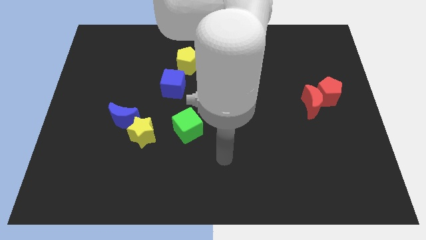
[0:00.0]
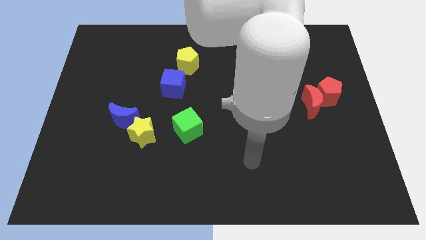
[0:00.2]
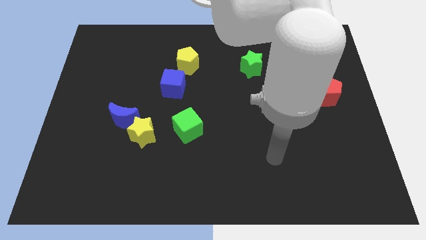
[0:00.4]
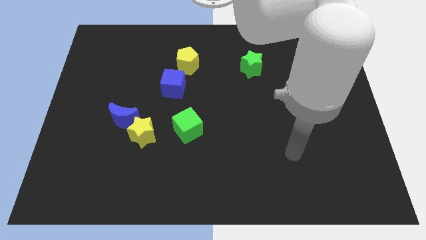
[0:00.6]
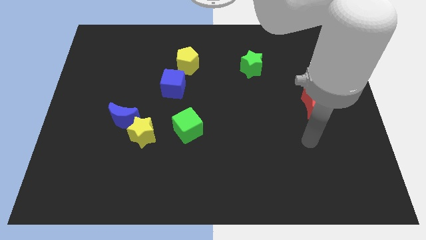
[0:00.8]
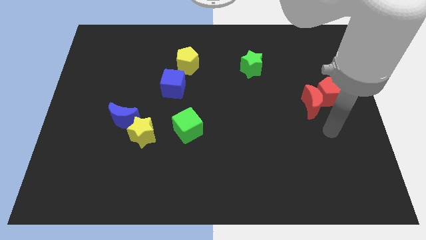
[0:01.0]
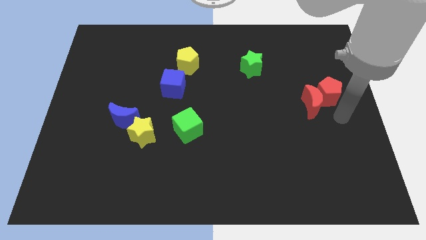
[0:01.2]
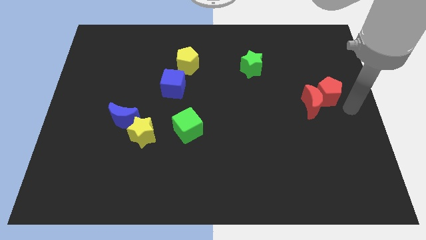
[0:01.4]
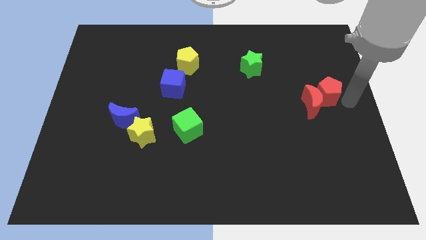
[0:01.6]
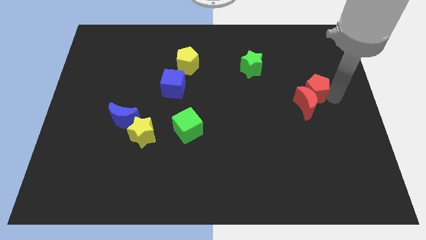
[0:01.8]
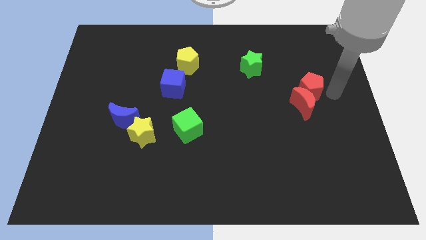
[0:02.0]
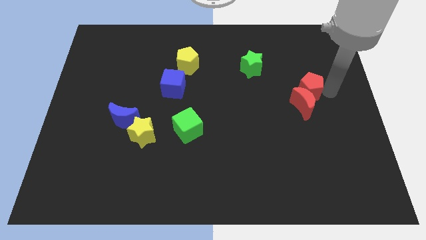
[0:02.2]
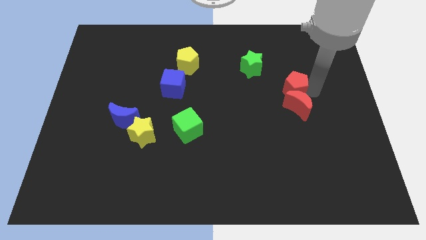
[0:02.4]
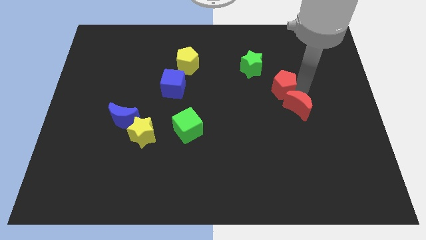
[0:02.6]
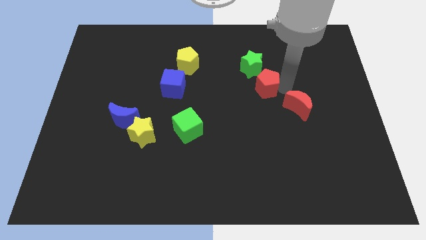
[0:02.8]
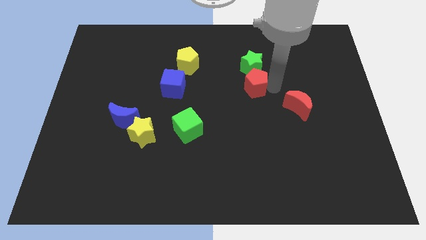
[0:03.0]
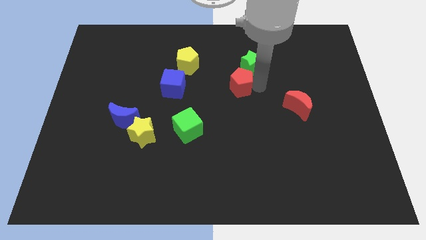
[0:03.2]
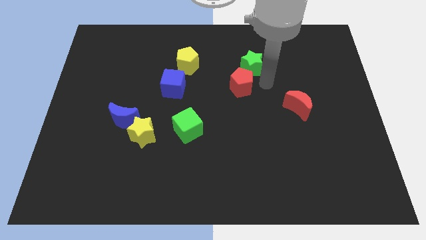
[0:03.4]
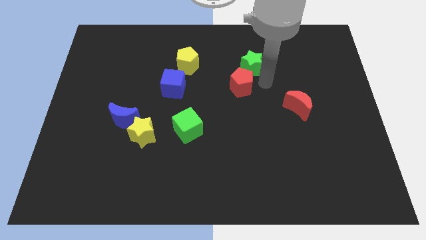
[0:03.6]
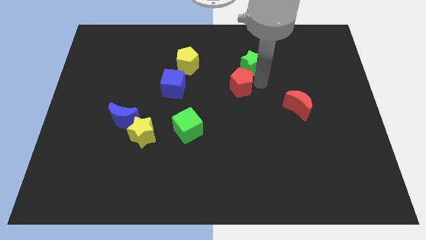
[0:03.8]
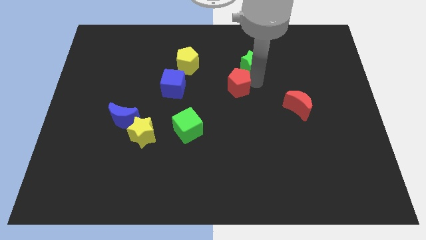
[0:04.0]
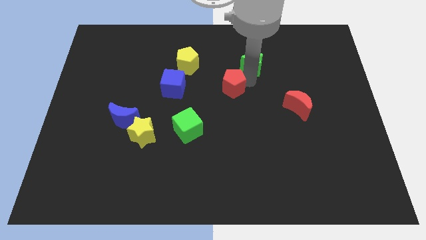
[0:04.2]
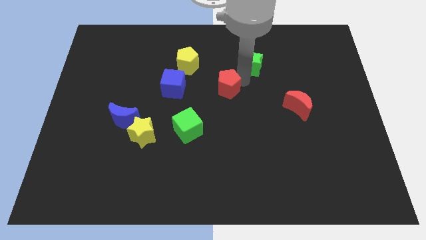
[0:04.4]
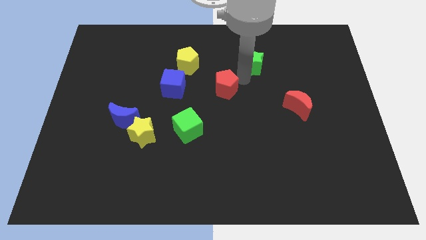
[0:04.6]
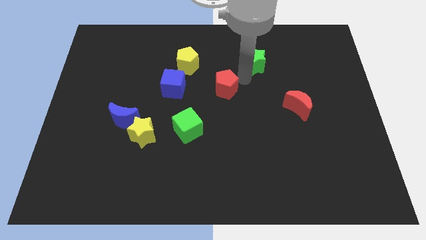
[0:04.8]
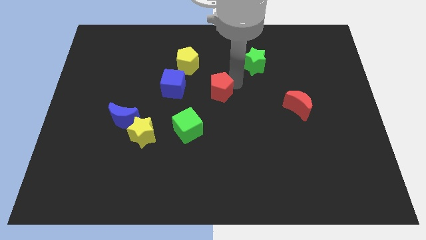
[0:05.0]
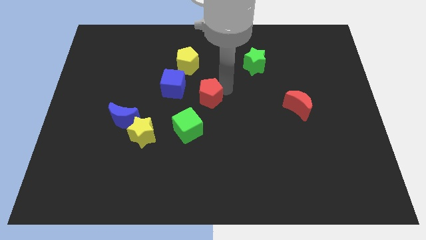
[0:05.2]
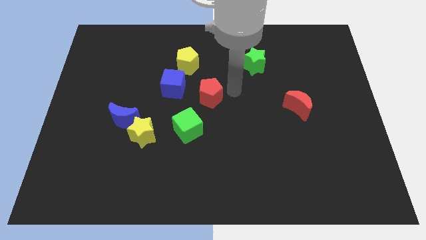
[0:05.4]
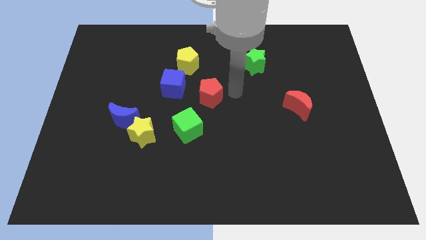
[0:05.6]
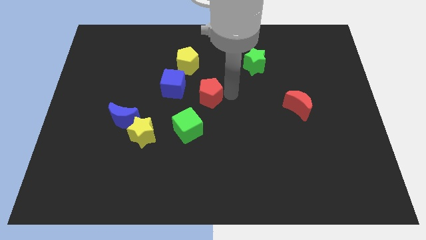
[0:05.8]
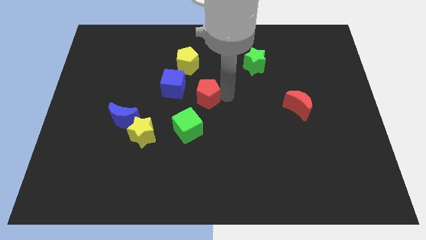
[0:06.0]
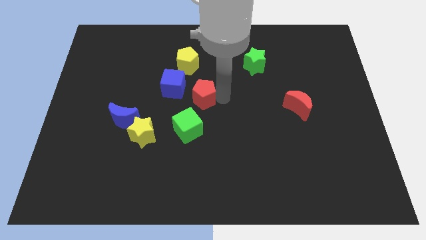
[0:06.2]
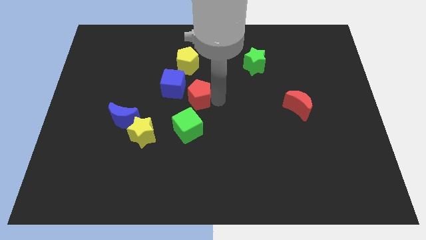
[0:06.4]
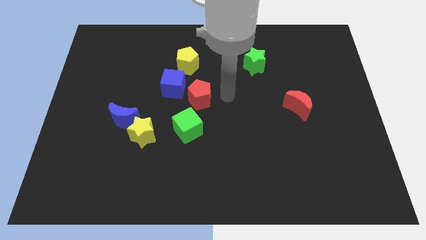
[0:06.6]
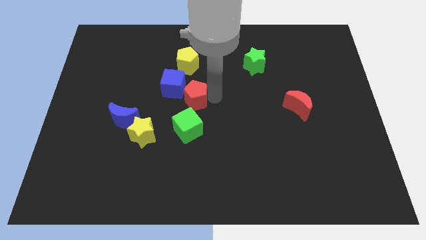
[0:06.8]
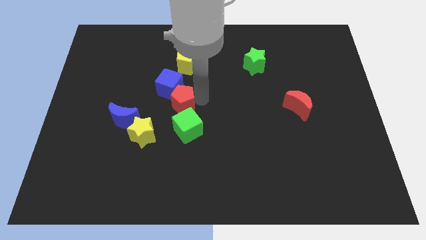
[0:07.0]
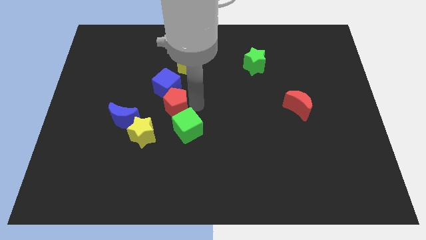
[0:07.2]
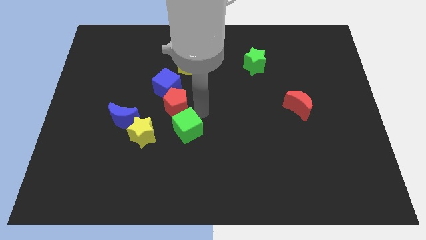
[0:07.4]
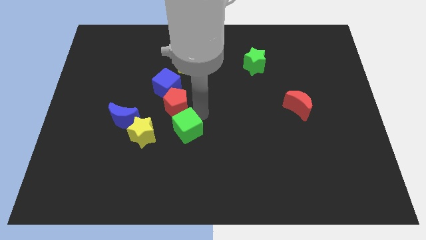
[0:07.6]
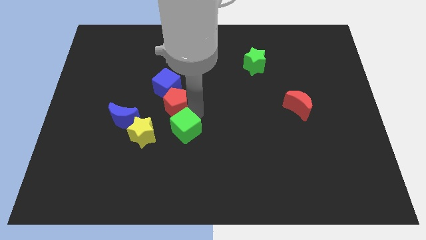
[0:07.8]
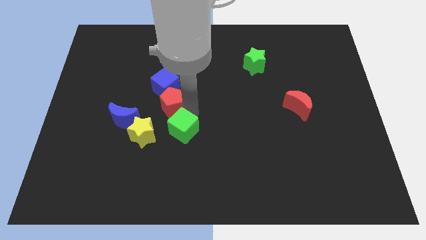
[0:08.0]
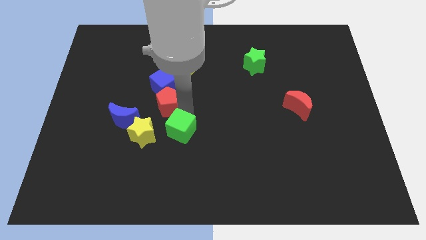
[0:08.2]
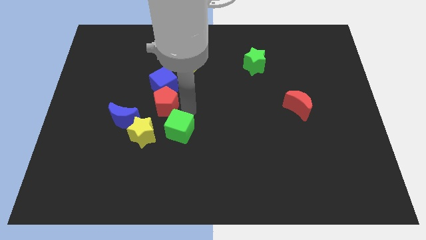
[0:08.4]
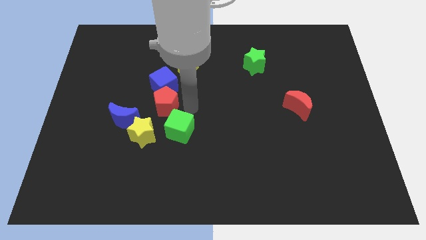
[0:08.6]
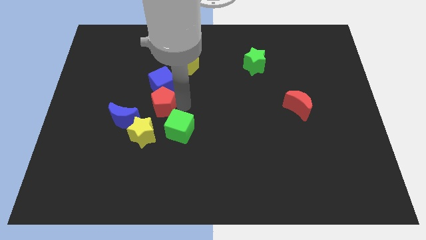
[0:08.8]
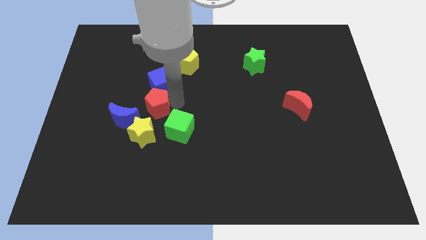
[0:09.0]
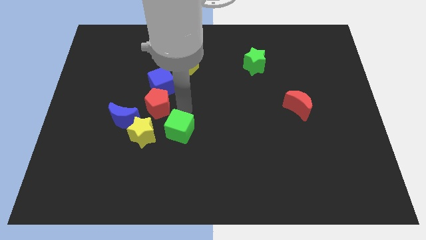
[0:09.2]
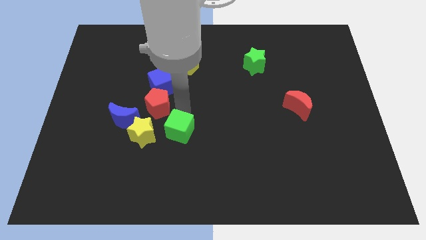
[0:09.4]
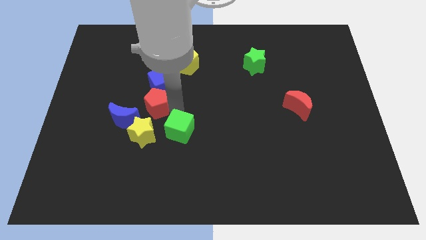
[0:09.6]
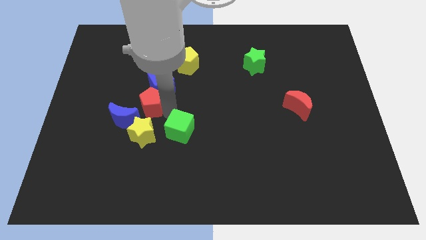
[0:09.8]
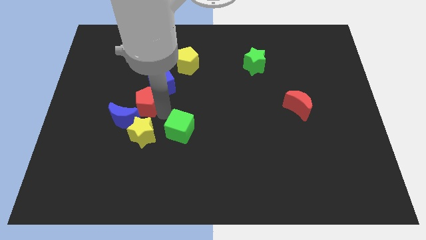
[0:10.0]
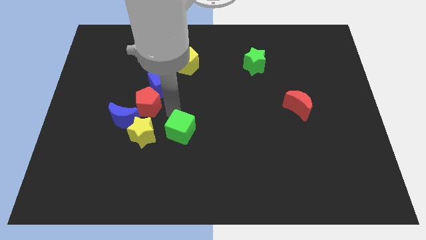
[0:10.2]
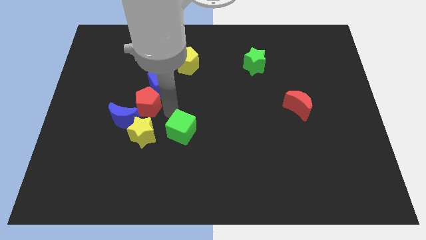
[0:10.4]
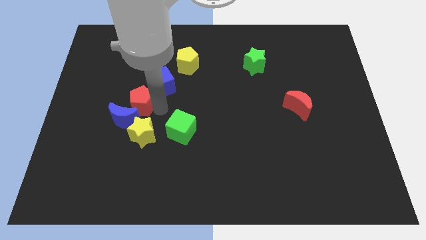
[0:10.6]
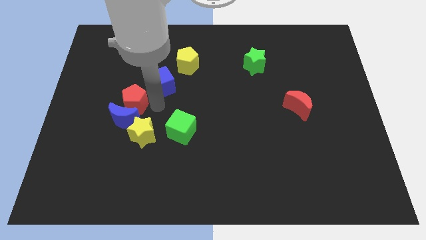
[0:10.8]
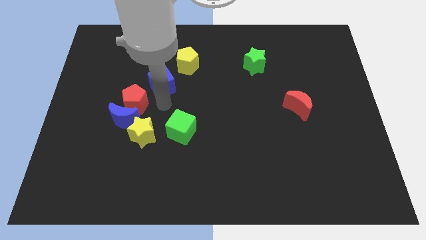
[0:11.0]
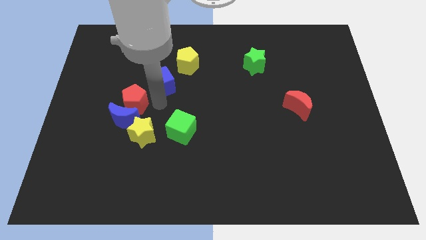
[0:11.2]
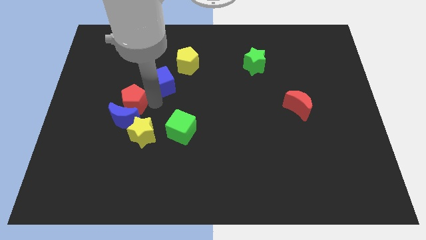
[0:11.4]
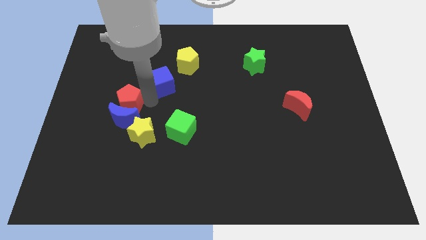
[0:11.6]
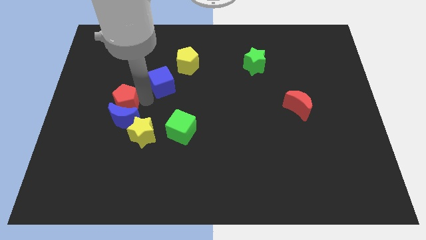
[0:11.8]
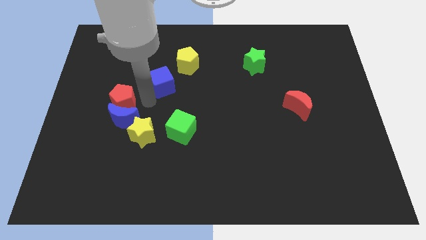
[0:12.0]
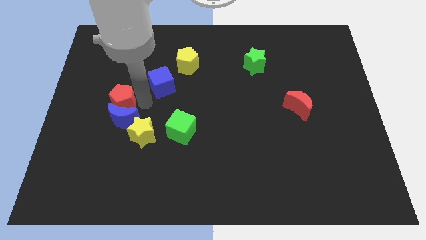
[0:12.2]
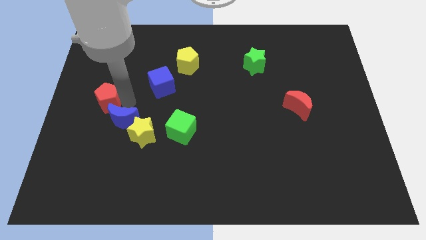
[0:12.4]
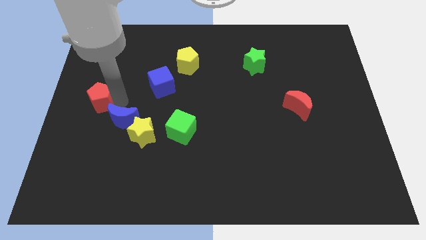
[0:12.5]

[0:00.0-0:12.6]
move the red pentagon to the center left

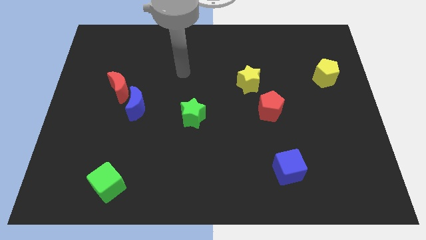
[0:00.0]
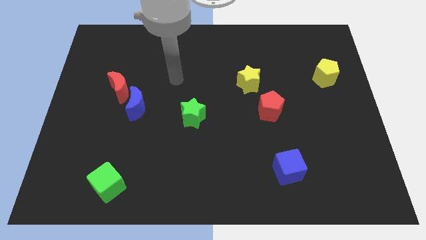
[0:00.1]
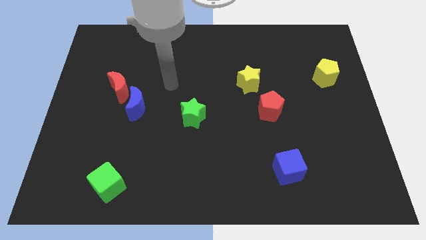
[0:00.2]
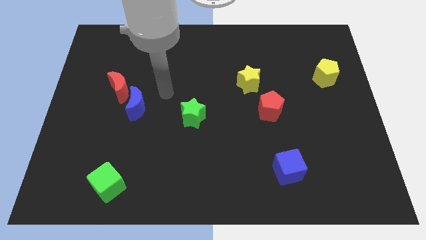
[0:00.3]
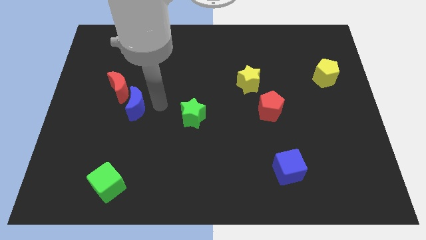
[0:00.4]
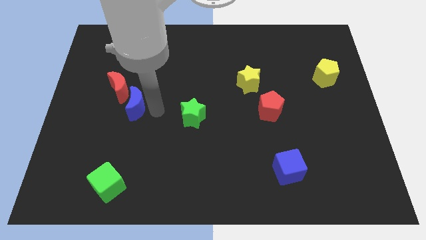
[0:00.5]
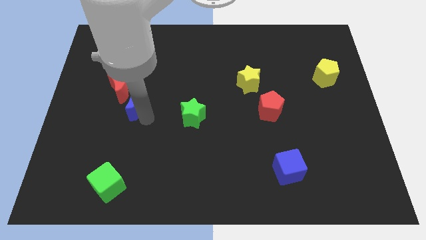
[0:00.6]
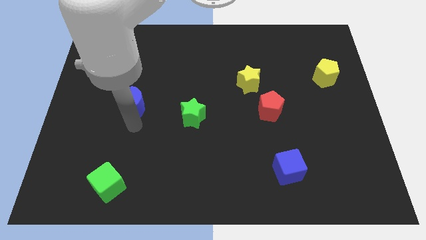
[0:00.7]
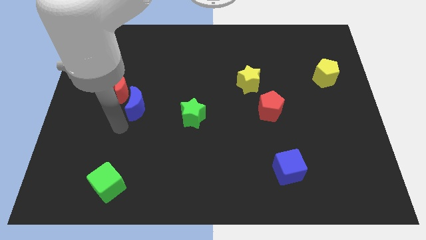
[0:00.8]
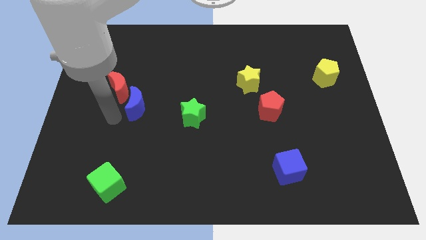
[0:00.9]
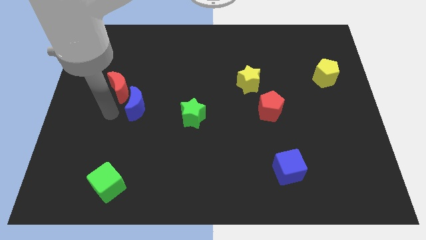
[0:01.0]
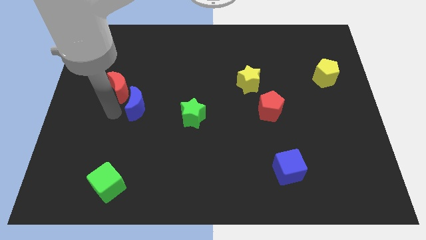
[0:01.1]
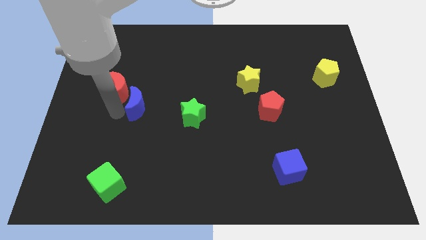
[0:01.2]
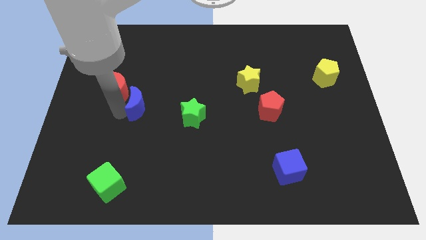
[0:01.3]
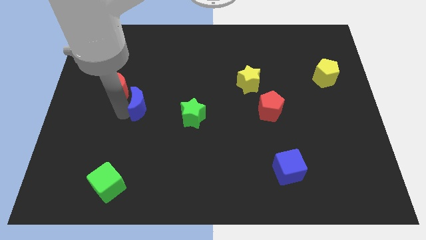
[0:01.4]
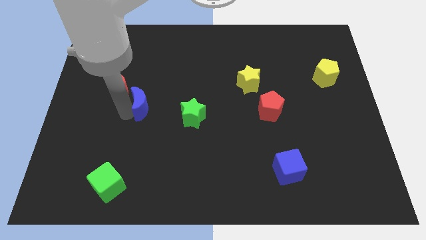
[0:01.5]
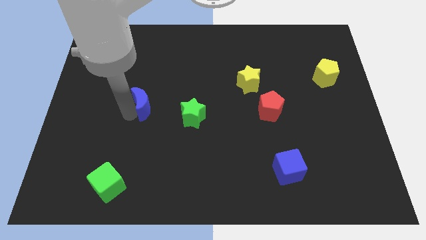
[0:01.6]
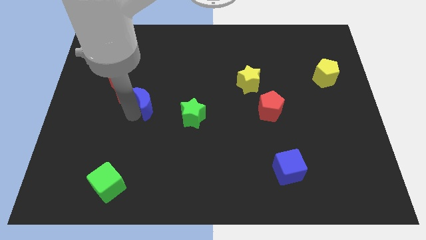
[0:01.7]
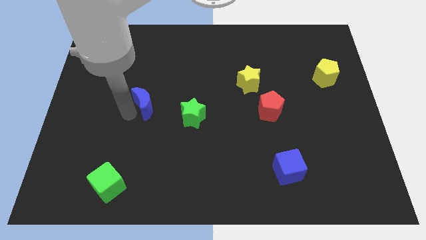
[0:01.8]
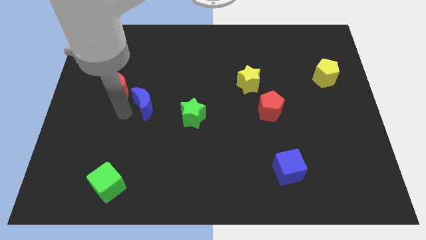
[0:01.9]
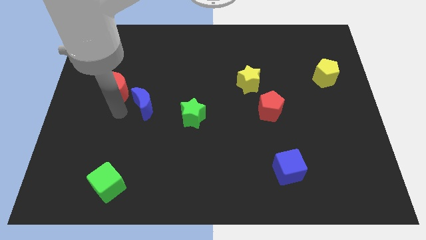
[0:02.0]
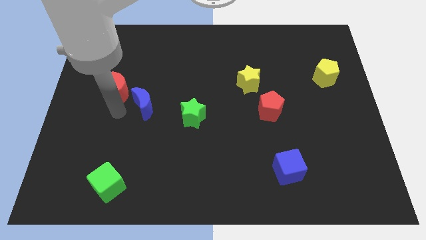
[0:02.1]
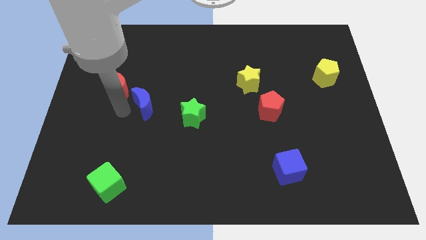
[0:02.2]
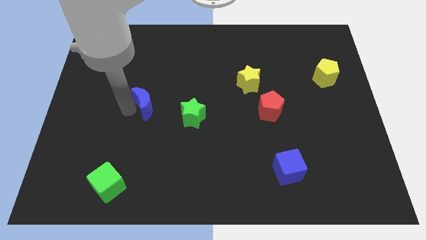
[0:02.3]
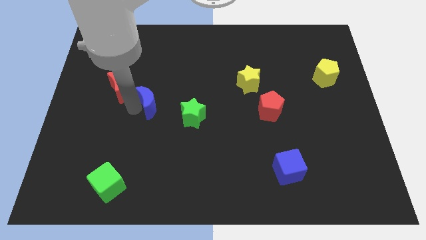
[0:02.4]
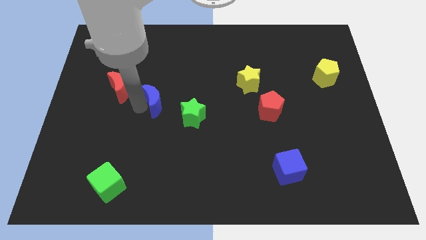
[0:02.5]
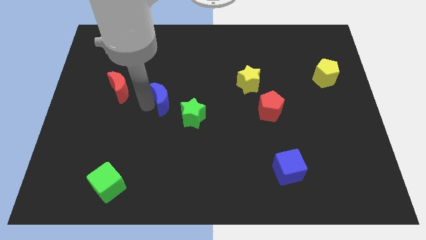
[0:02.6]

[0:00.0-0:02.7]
push the blue moon to the center of the board
